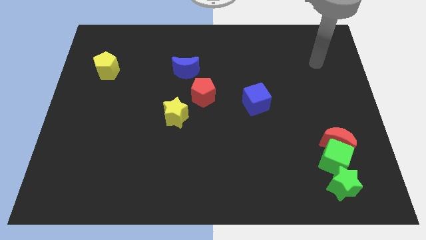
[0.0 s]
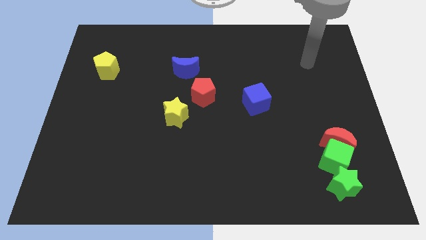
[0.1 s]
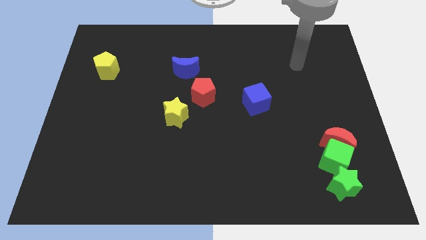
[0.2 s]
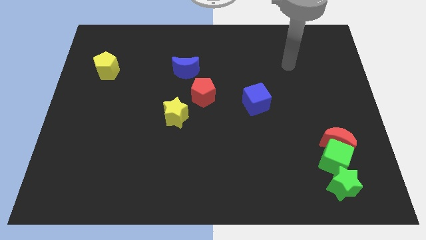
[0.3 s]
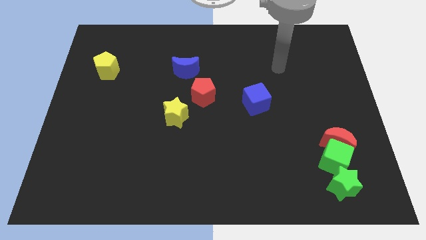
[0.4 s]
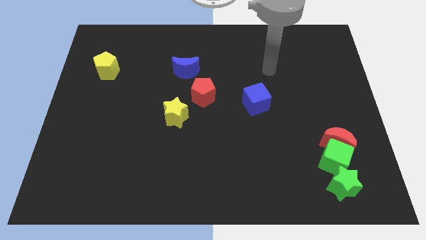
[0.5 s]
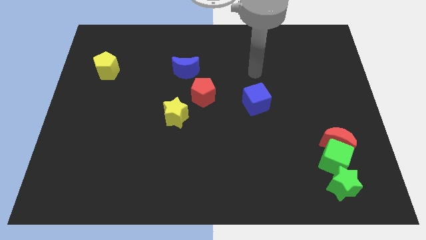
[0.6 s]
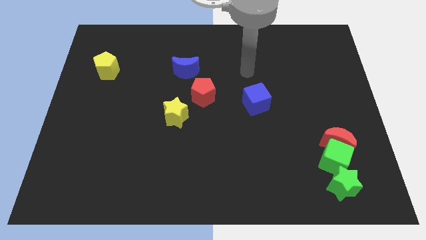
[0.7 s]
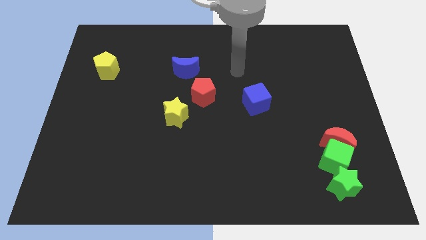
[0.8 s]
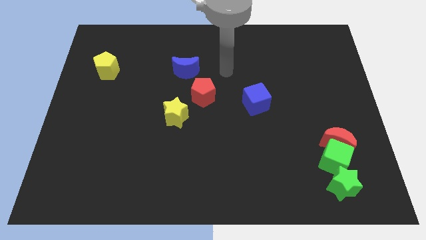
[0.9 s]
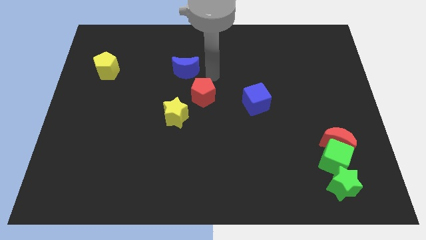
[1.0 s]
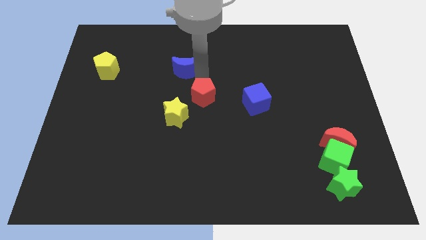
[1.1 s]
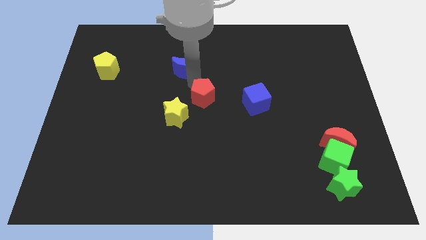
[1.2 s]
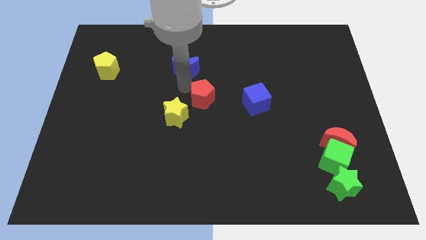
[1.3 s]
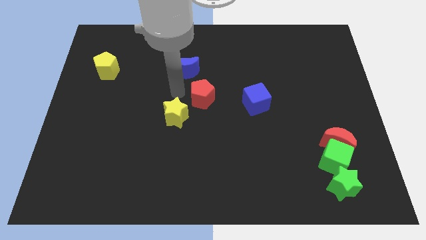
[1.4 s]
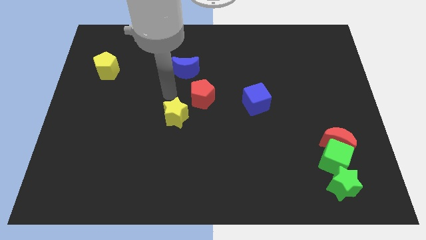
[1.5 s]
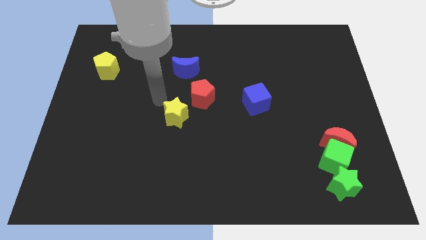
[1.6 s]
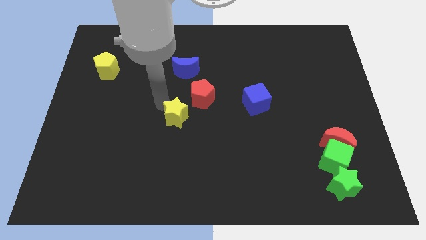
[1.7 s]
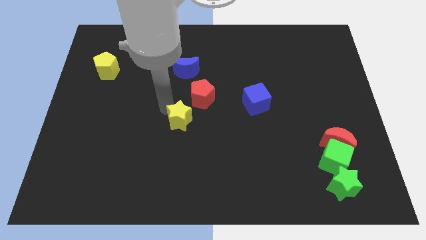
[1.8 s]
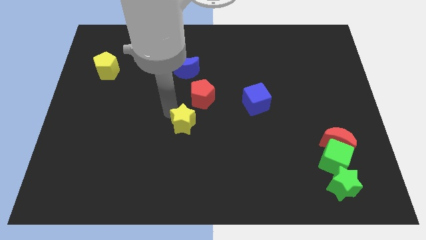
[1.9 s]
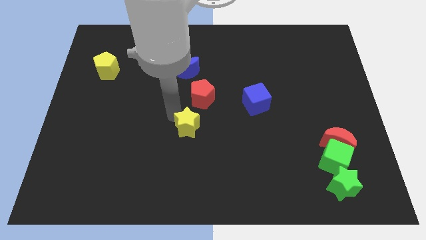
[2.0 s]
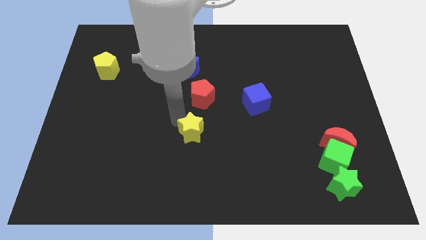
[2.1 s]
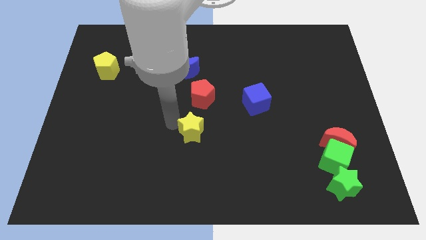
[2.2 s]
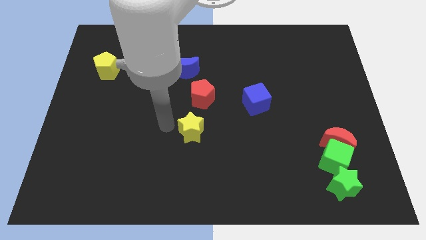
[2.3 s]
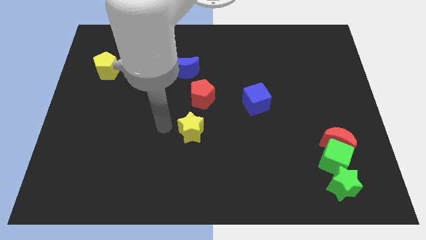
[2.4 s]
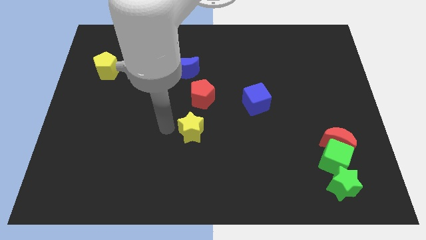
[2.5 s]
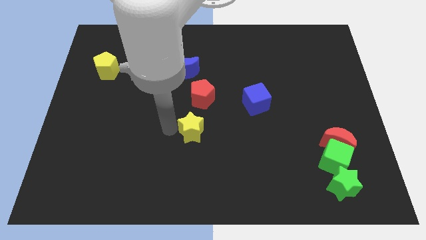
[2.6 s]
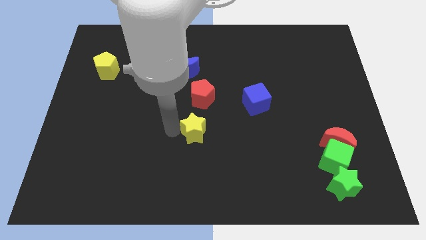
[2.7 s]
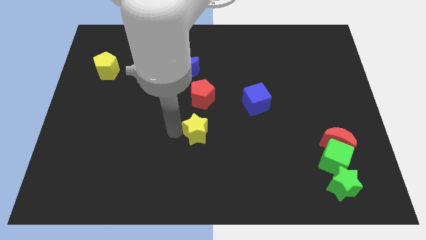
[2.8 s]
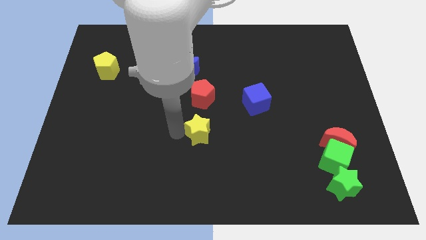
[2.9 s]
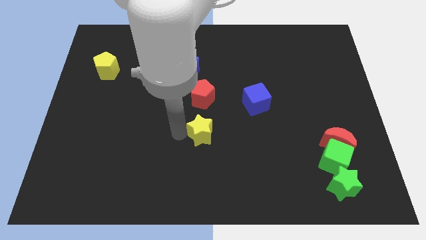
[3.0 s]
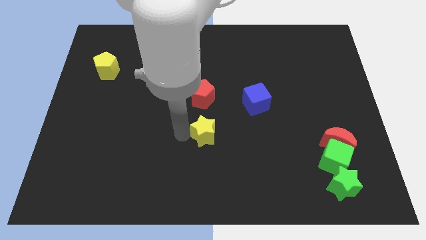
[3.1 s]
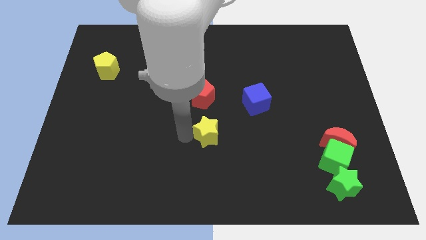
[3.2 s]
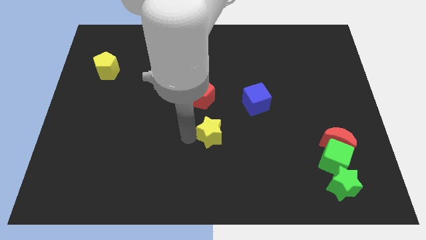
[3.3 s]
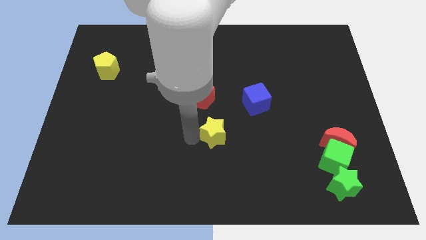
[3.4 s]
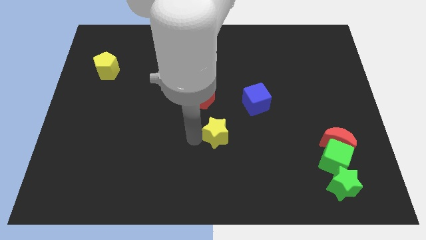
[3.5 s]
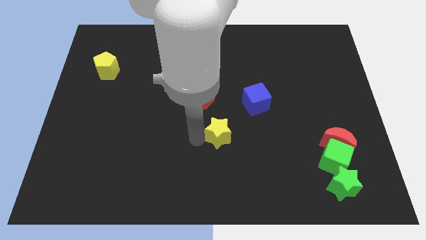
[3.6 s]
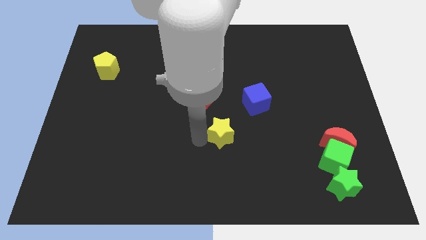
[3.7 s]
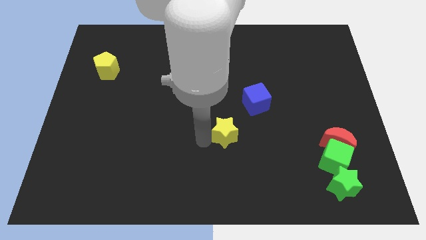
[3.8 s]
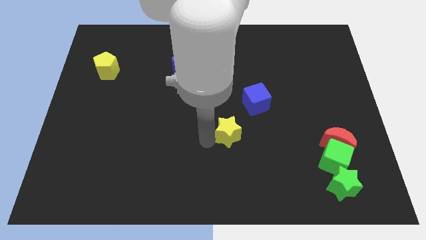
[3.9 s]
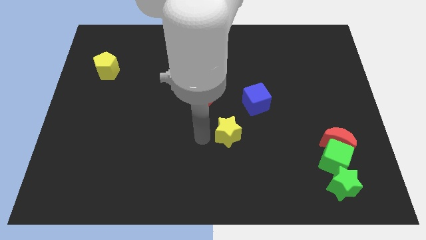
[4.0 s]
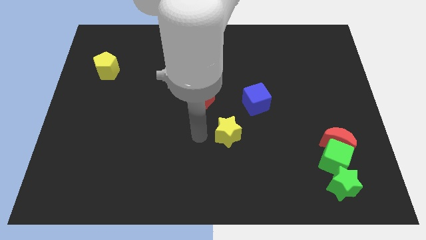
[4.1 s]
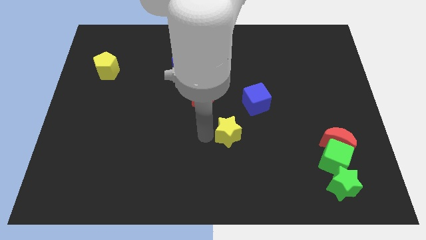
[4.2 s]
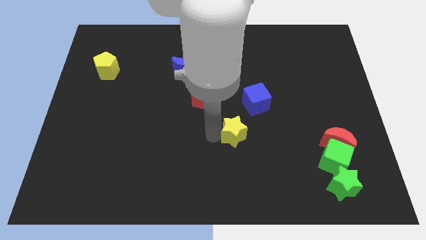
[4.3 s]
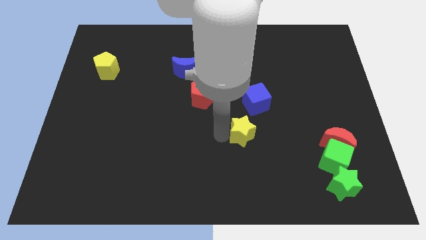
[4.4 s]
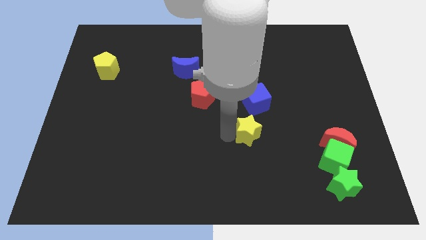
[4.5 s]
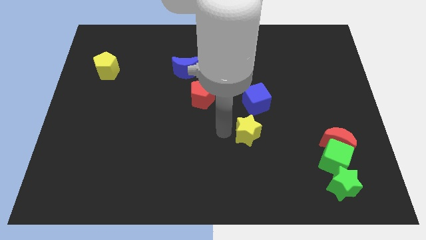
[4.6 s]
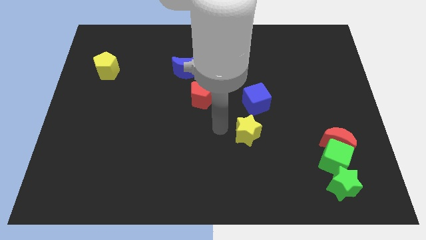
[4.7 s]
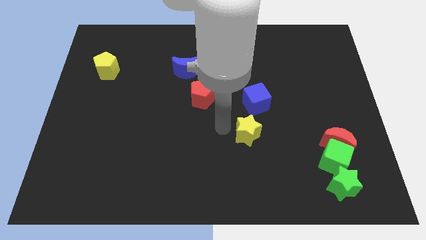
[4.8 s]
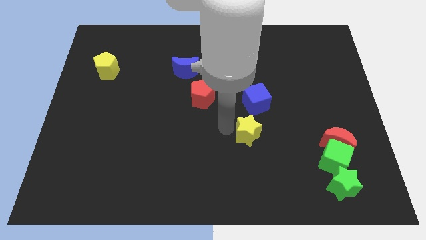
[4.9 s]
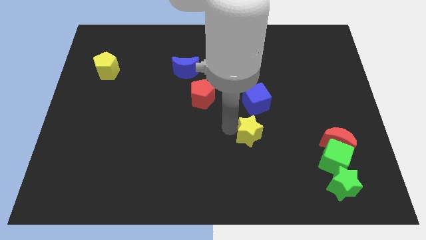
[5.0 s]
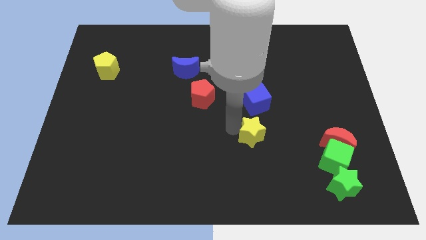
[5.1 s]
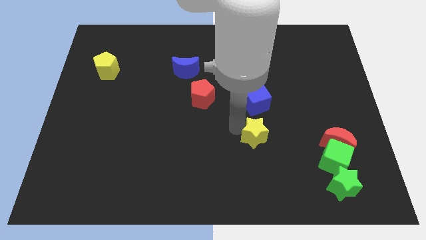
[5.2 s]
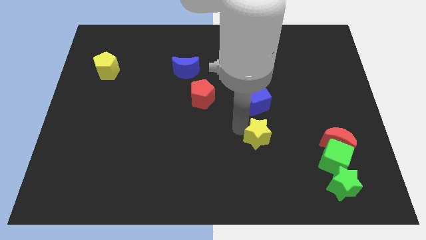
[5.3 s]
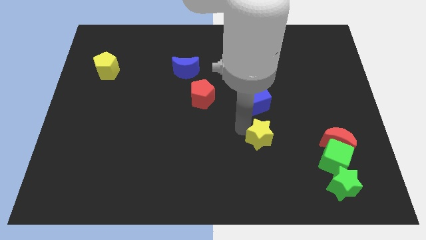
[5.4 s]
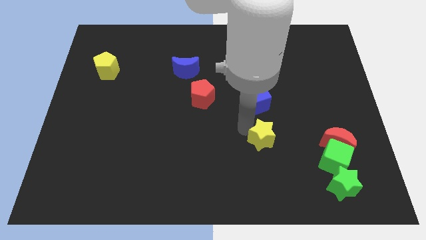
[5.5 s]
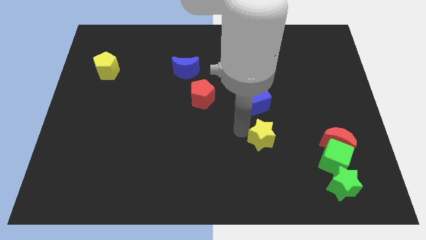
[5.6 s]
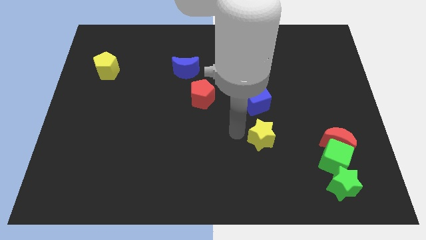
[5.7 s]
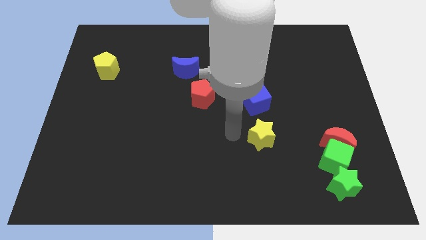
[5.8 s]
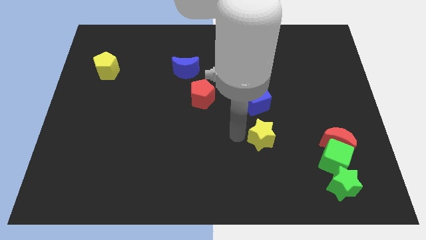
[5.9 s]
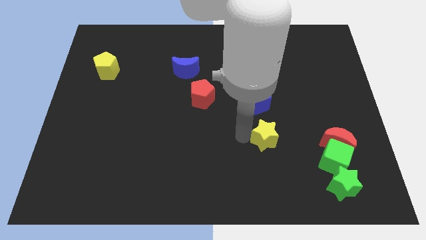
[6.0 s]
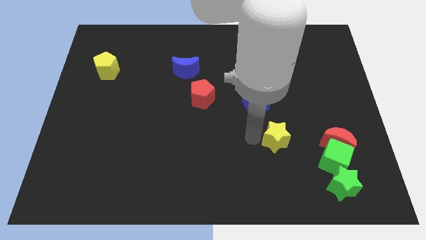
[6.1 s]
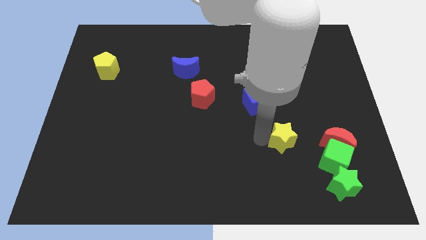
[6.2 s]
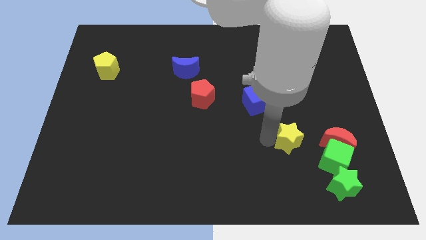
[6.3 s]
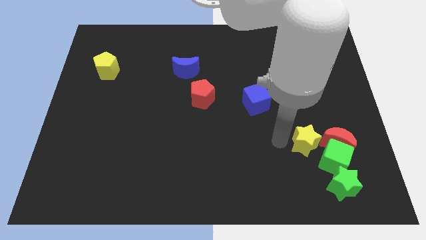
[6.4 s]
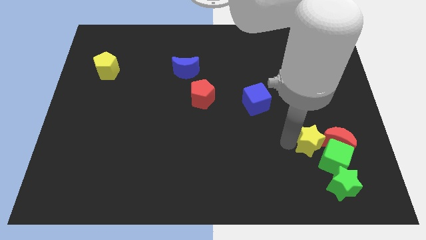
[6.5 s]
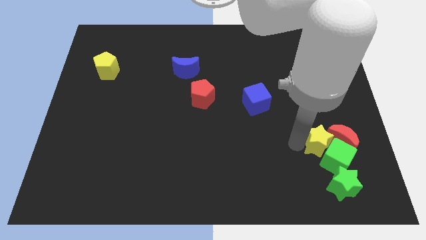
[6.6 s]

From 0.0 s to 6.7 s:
slide the yellow star next to the red moon

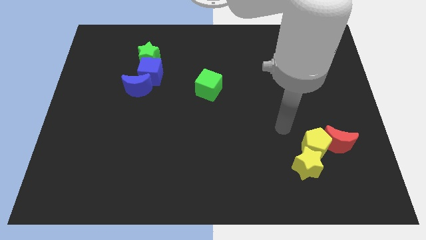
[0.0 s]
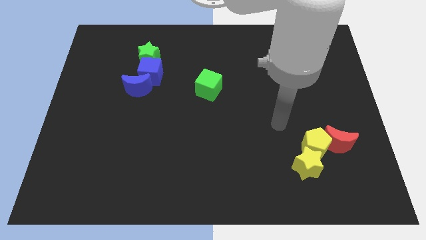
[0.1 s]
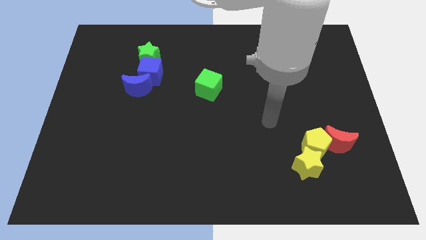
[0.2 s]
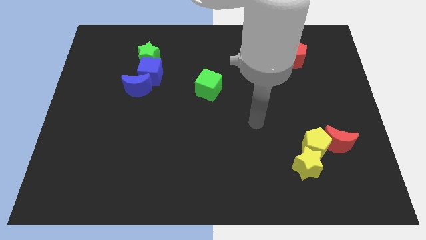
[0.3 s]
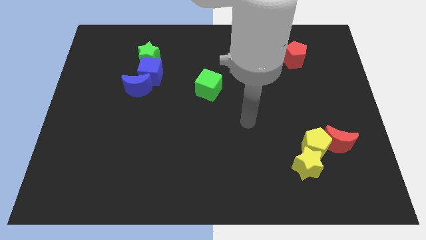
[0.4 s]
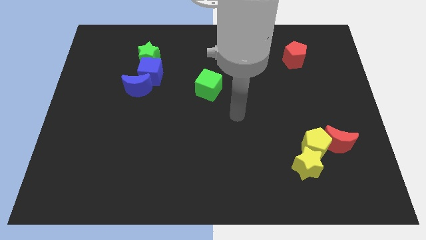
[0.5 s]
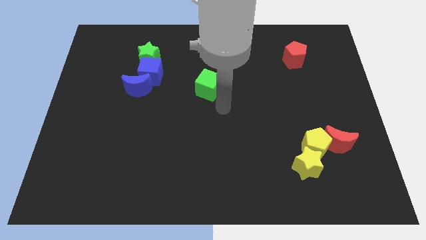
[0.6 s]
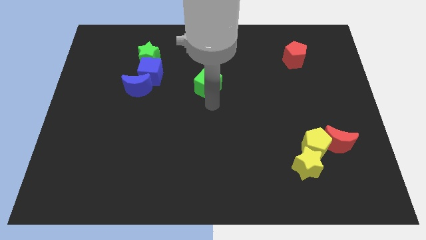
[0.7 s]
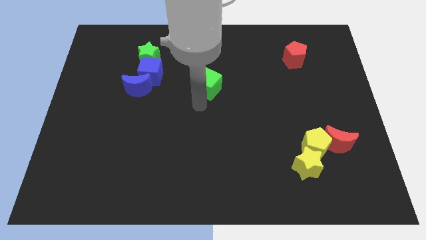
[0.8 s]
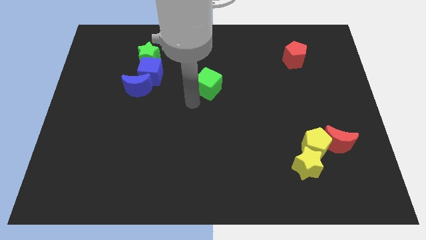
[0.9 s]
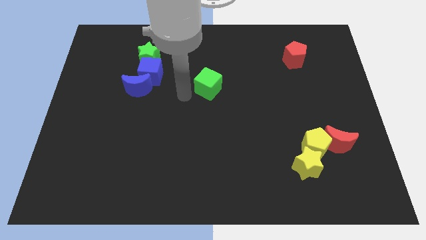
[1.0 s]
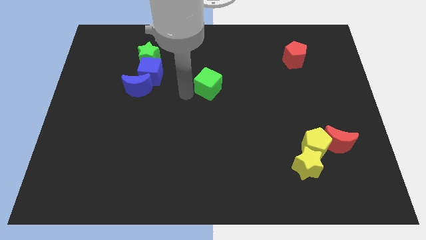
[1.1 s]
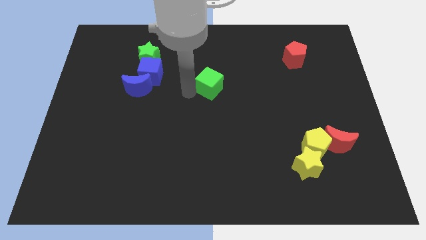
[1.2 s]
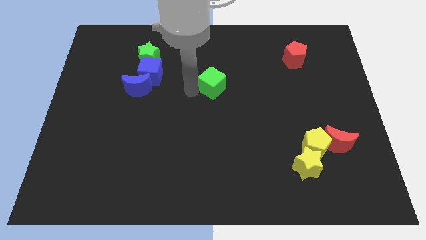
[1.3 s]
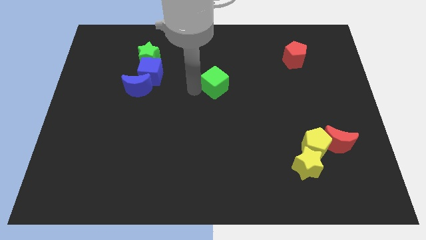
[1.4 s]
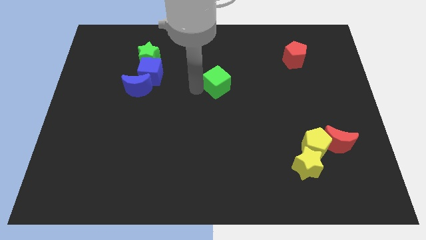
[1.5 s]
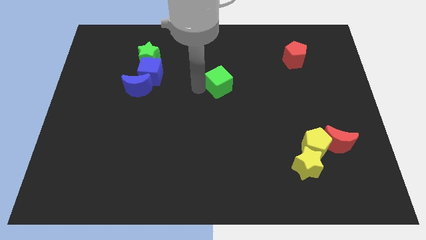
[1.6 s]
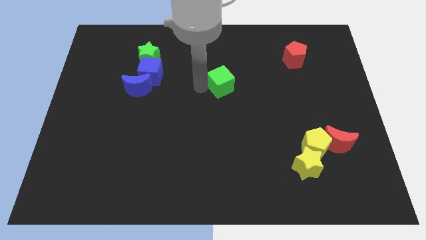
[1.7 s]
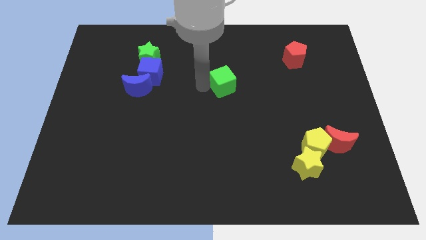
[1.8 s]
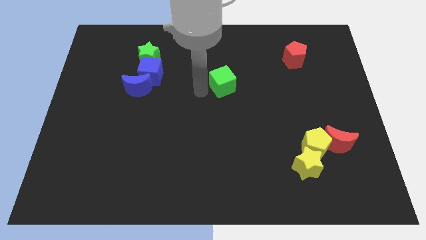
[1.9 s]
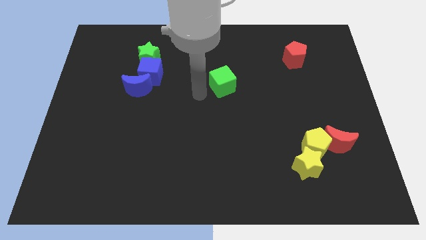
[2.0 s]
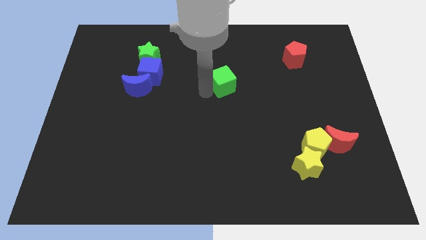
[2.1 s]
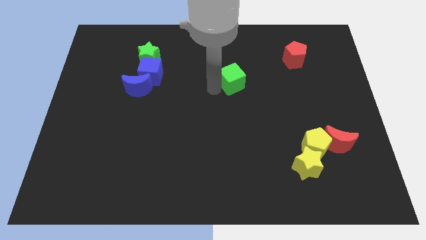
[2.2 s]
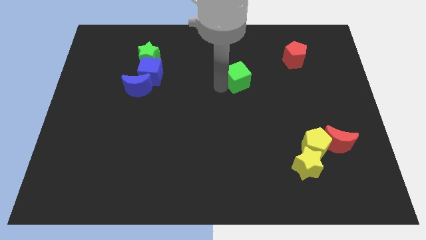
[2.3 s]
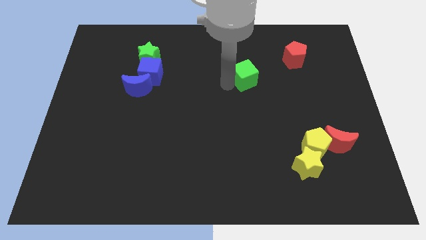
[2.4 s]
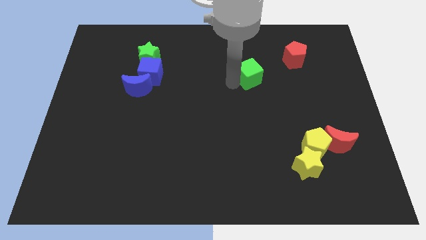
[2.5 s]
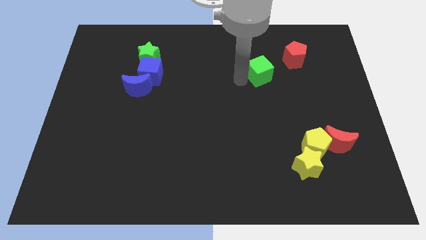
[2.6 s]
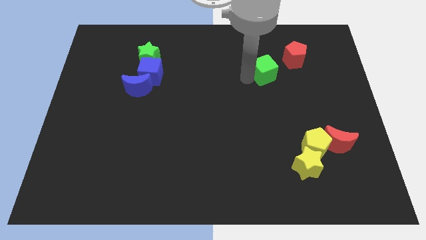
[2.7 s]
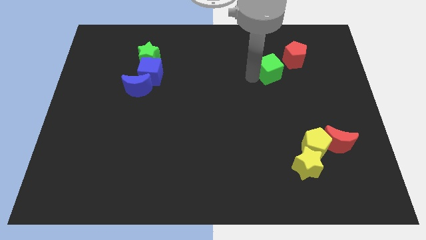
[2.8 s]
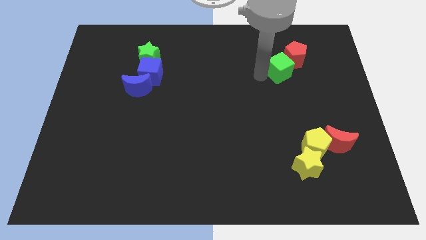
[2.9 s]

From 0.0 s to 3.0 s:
move the green cube close to the red pentagon
